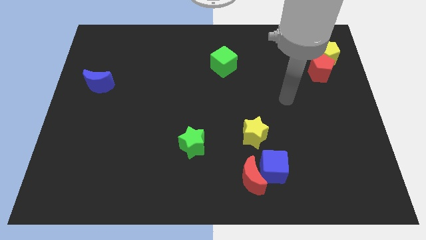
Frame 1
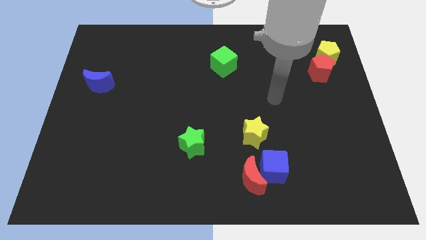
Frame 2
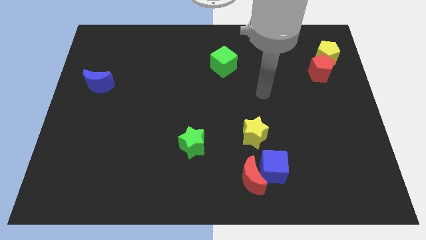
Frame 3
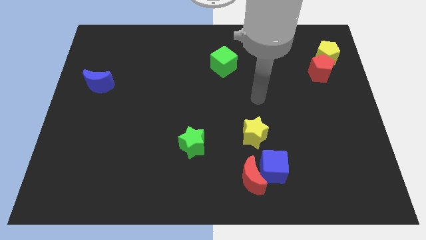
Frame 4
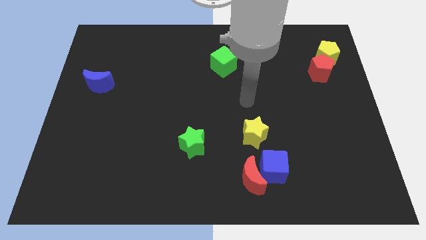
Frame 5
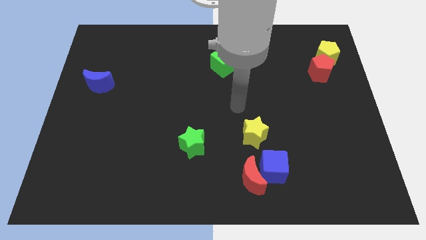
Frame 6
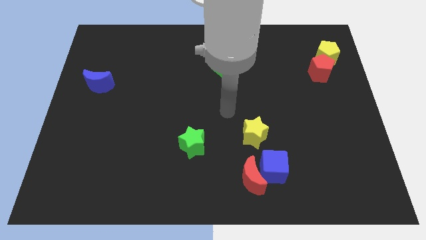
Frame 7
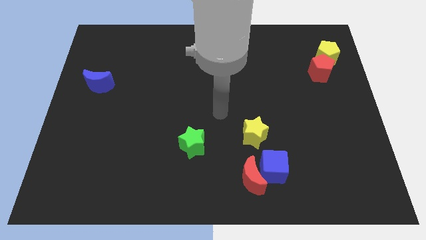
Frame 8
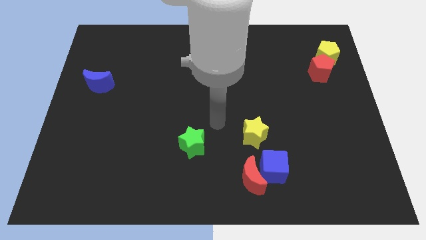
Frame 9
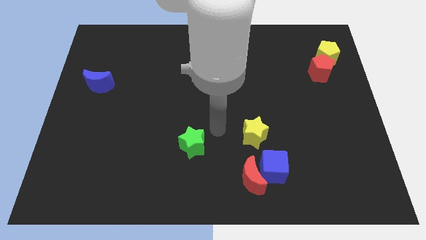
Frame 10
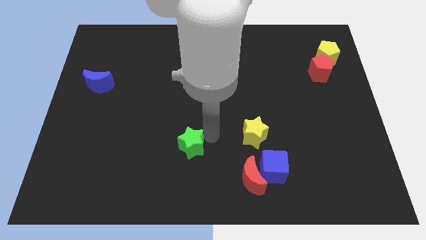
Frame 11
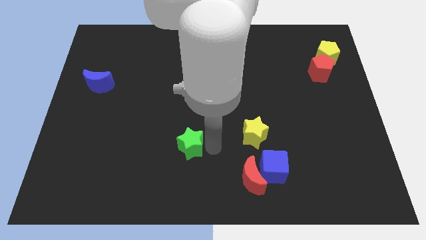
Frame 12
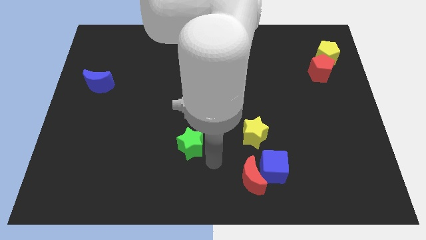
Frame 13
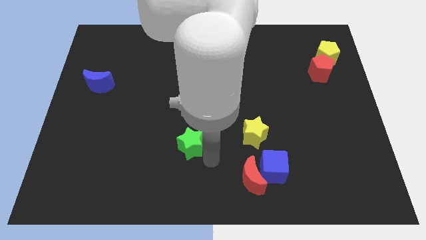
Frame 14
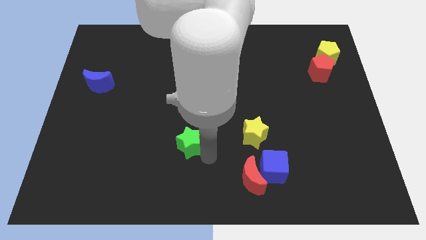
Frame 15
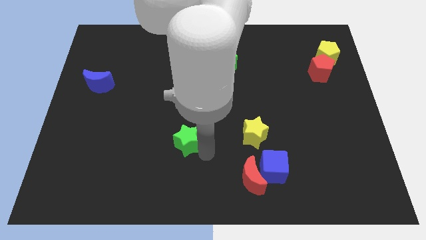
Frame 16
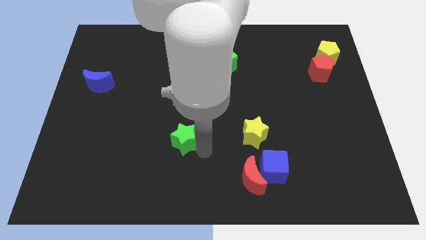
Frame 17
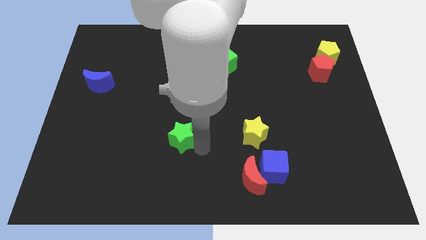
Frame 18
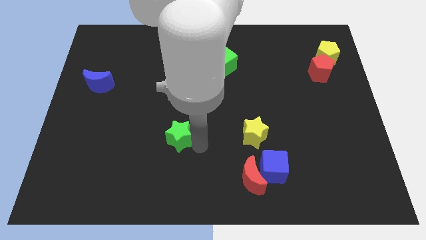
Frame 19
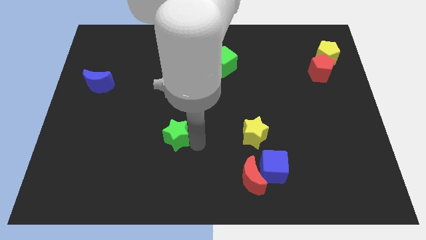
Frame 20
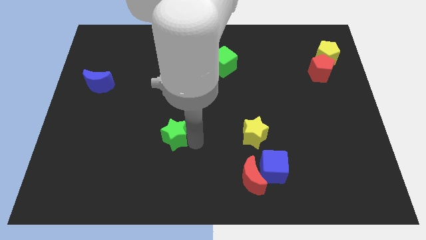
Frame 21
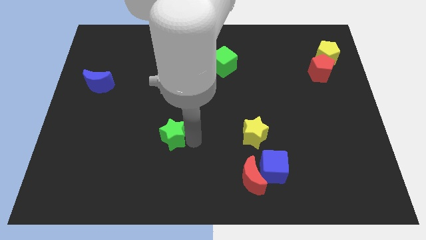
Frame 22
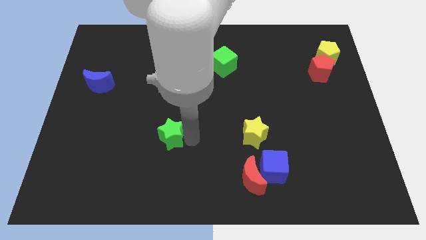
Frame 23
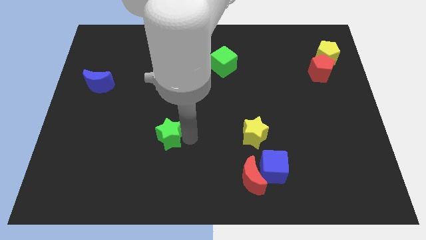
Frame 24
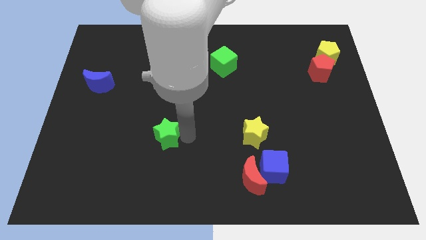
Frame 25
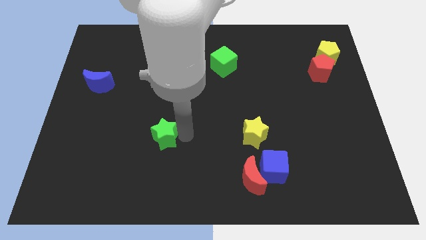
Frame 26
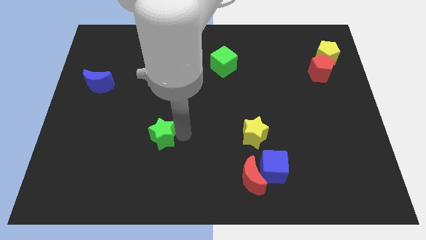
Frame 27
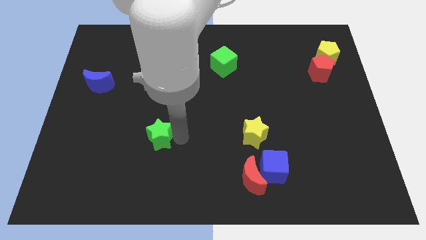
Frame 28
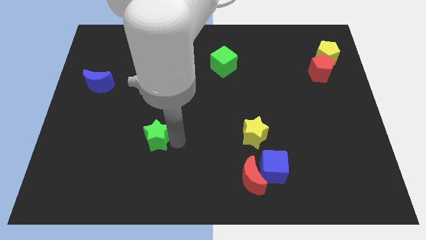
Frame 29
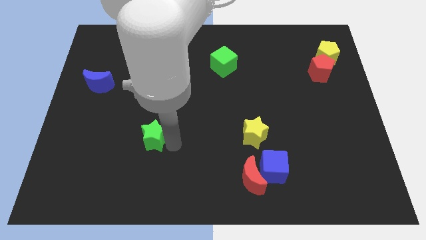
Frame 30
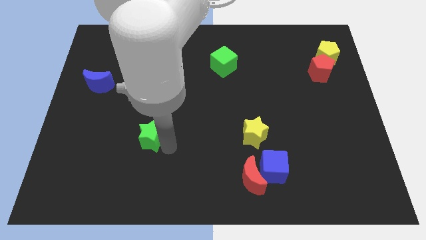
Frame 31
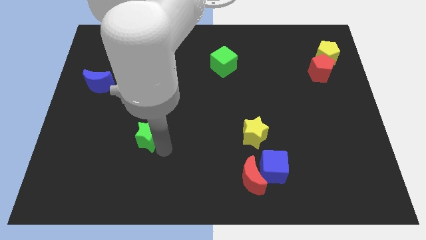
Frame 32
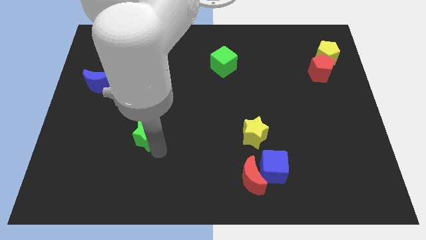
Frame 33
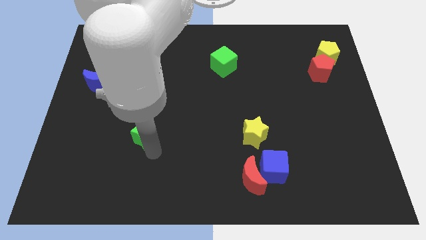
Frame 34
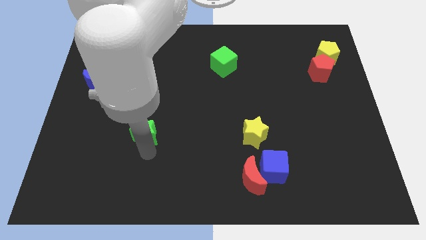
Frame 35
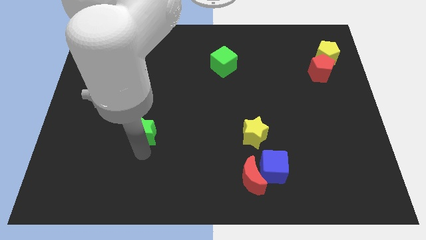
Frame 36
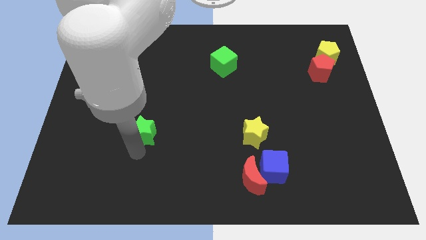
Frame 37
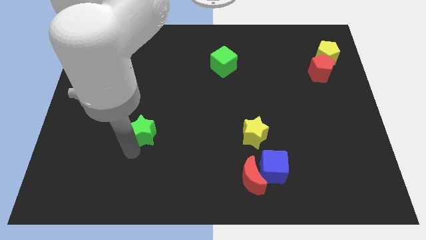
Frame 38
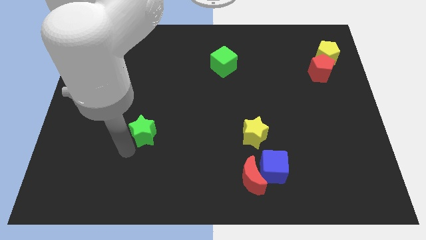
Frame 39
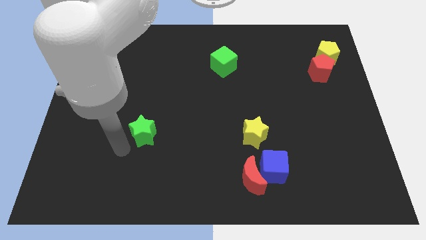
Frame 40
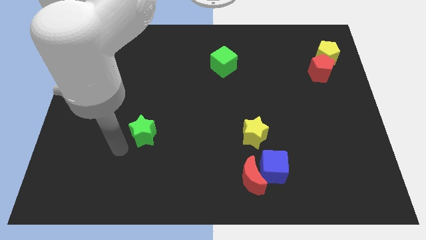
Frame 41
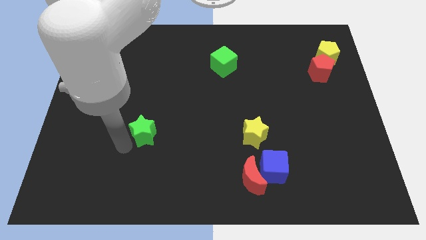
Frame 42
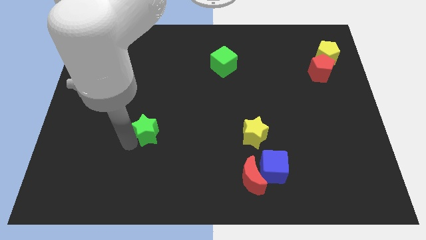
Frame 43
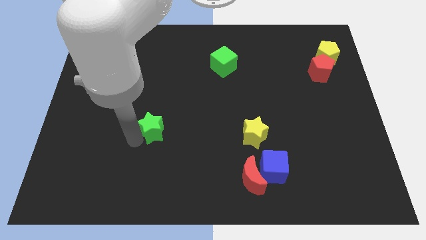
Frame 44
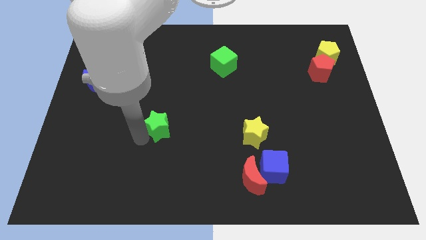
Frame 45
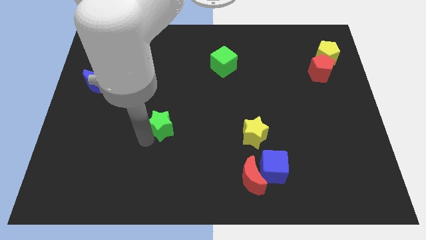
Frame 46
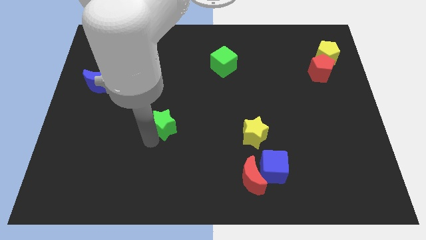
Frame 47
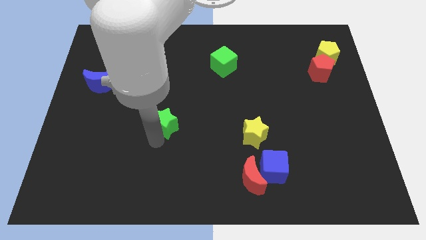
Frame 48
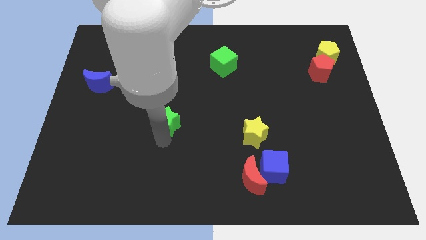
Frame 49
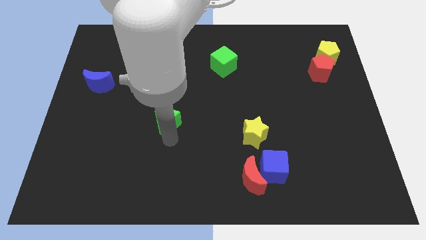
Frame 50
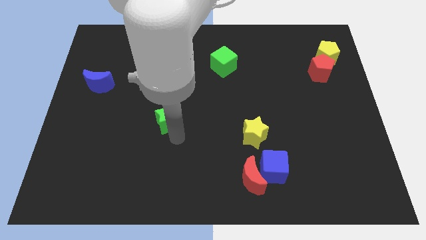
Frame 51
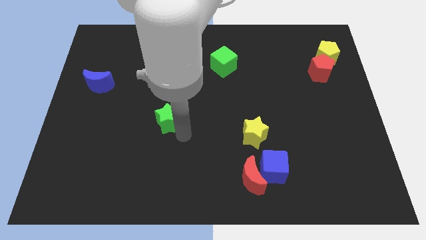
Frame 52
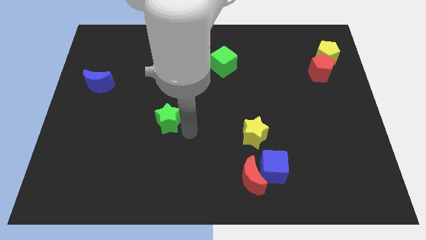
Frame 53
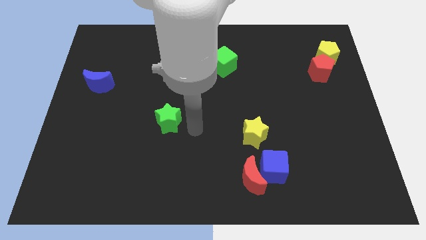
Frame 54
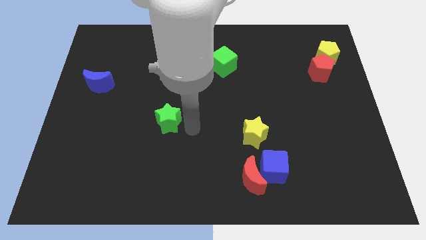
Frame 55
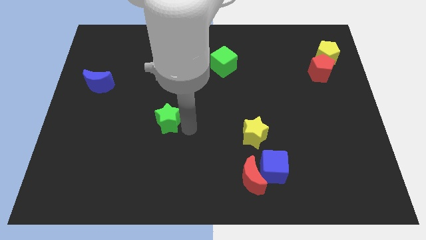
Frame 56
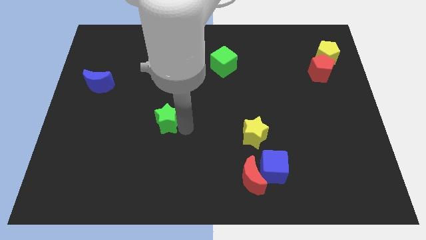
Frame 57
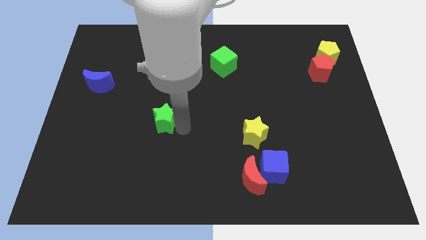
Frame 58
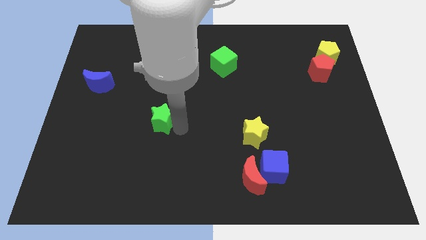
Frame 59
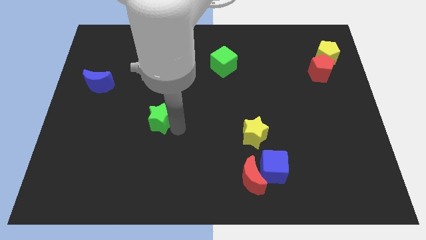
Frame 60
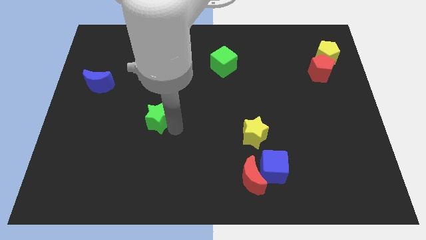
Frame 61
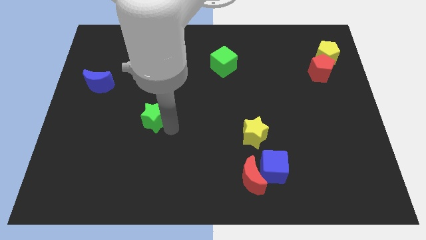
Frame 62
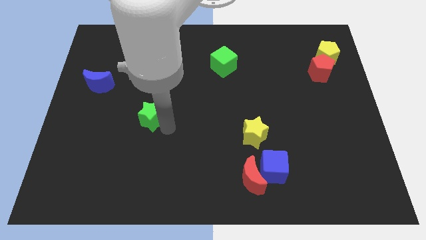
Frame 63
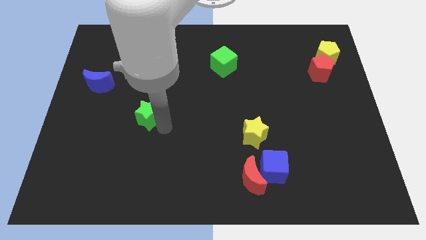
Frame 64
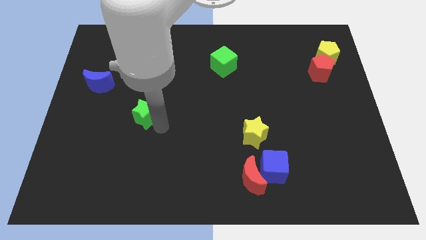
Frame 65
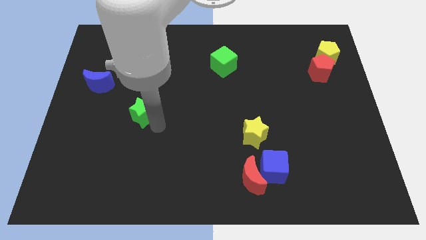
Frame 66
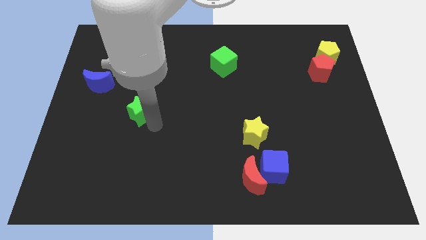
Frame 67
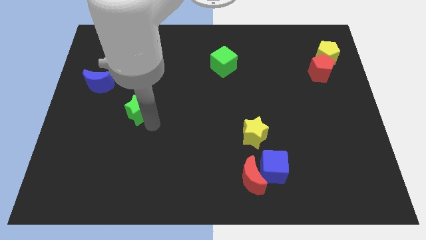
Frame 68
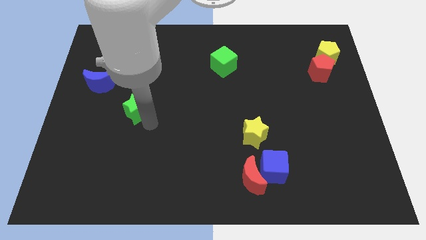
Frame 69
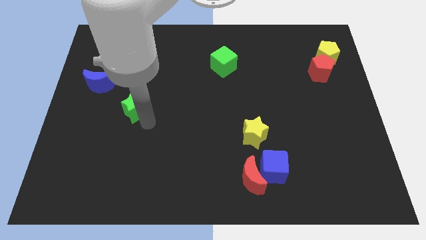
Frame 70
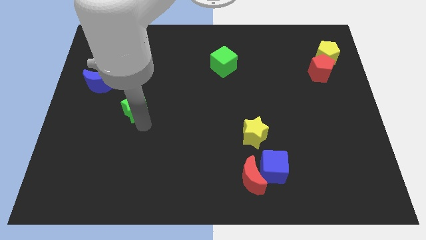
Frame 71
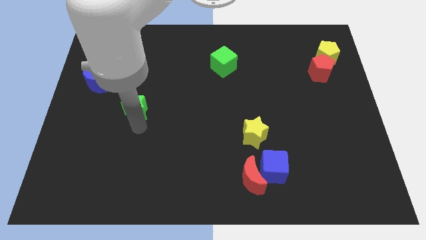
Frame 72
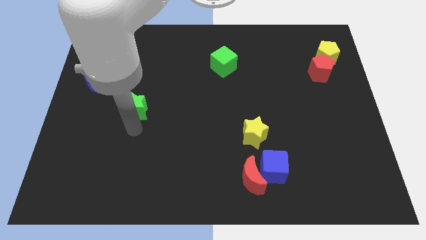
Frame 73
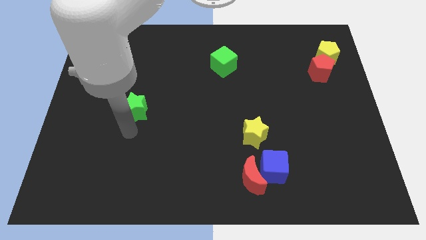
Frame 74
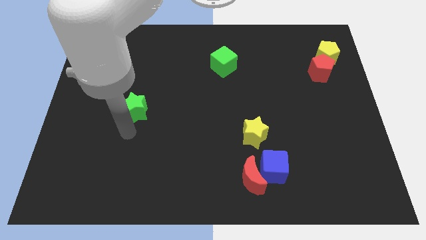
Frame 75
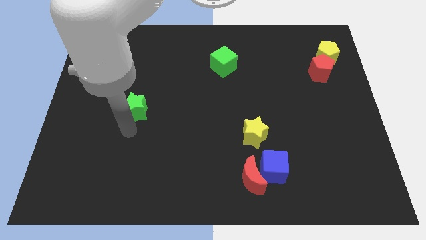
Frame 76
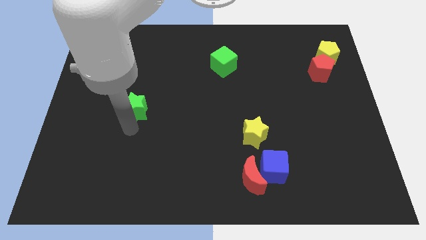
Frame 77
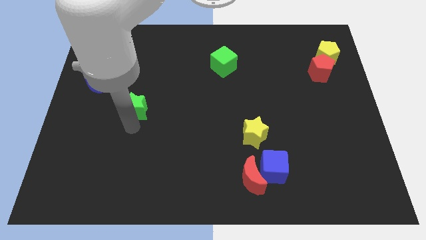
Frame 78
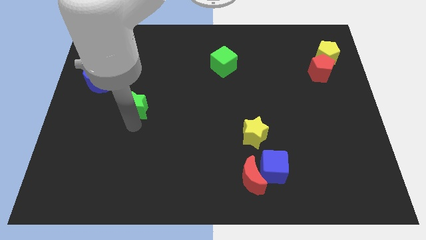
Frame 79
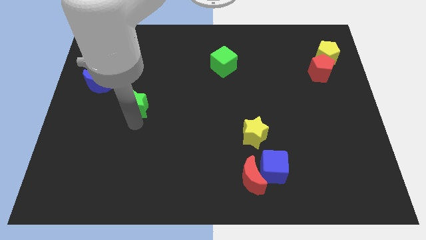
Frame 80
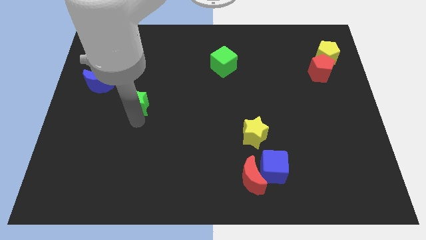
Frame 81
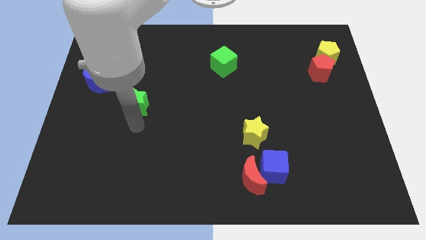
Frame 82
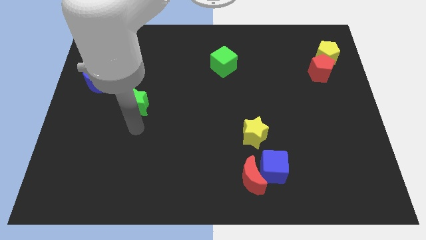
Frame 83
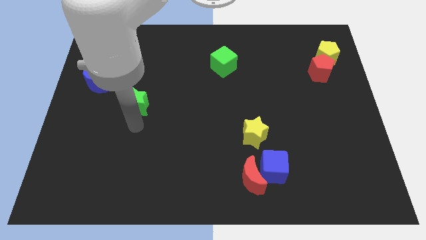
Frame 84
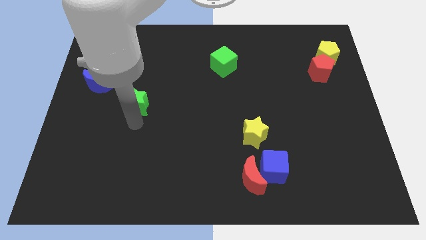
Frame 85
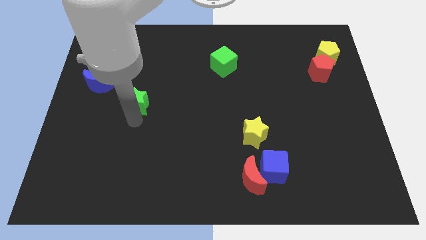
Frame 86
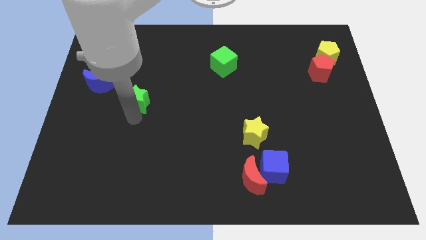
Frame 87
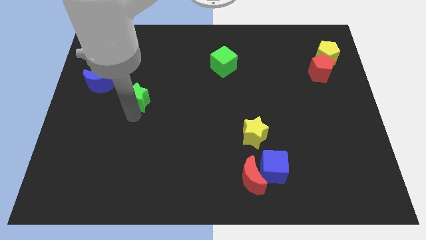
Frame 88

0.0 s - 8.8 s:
slide the green star right of the blue moon
